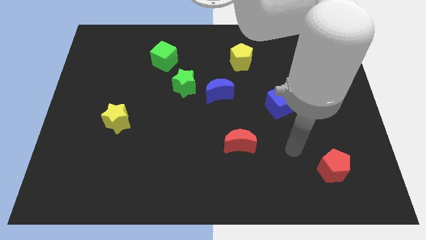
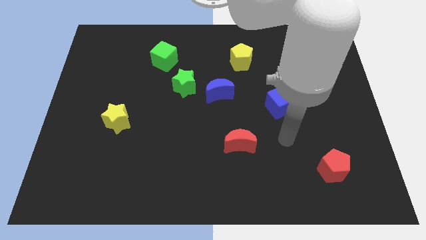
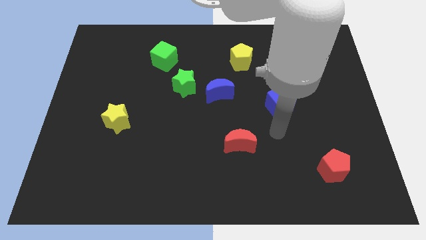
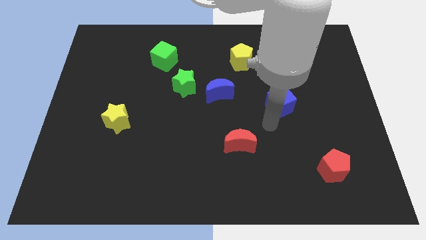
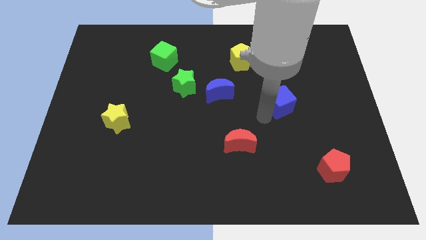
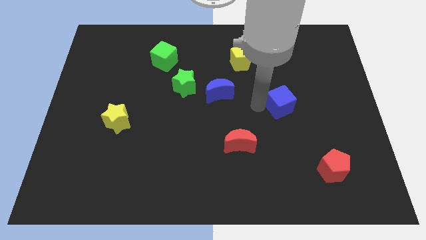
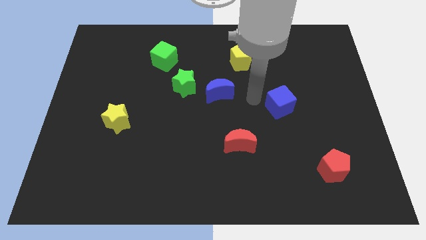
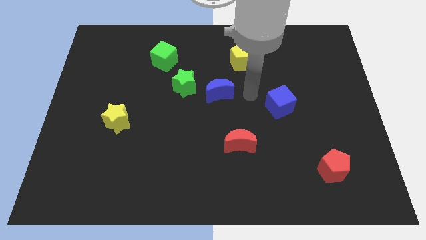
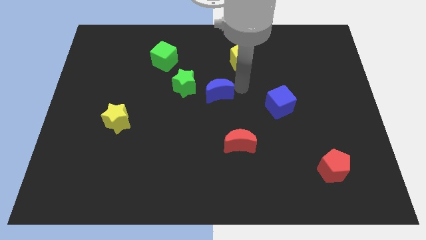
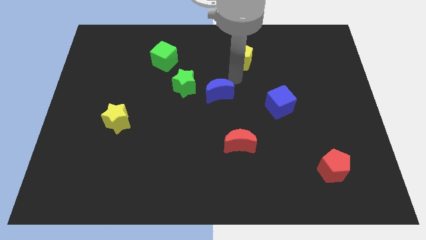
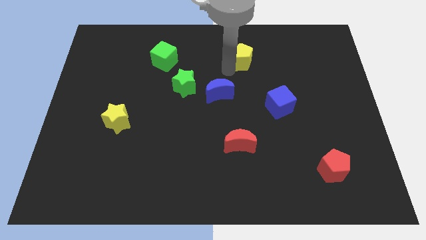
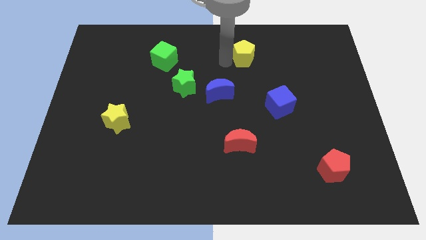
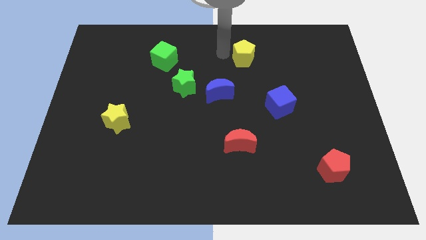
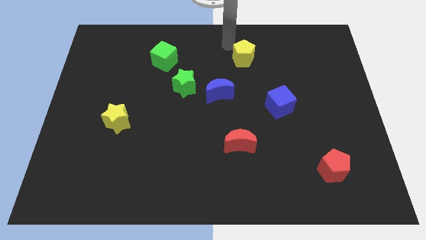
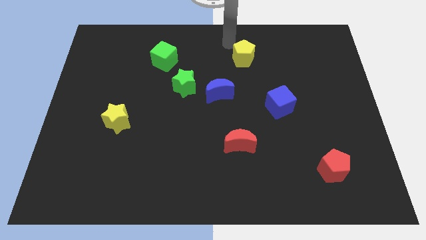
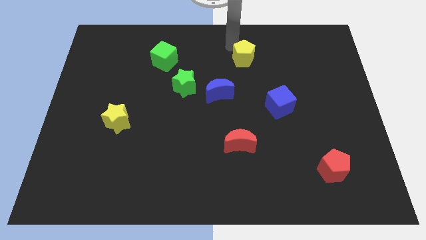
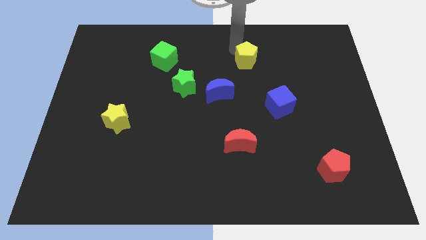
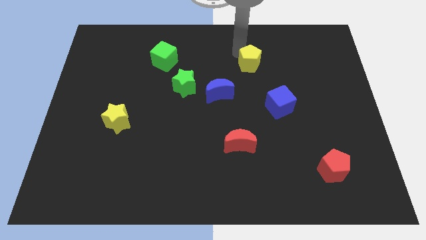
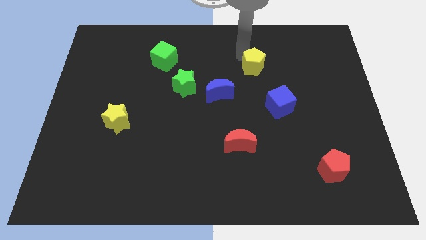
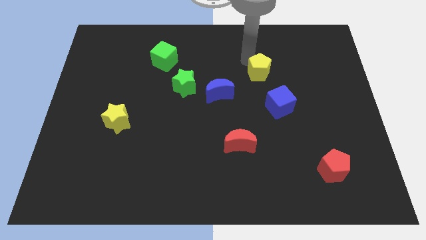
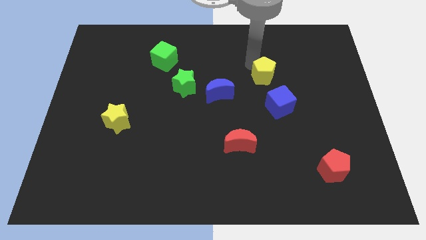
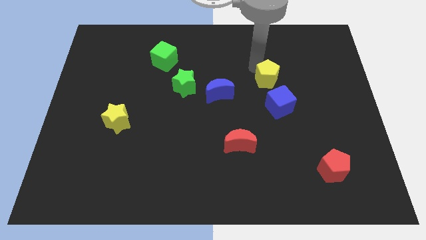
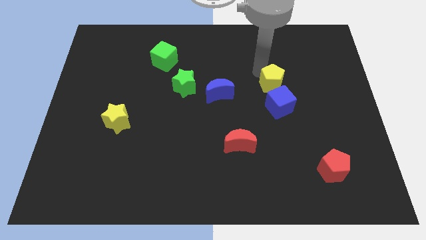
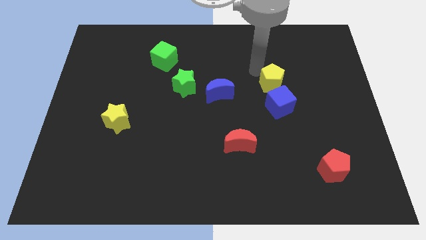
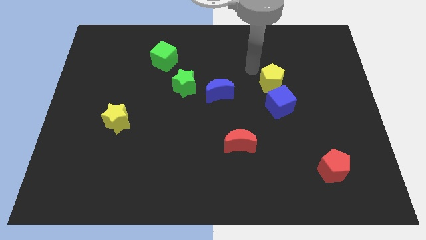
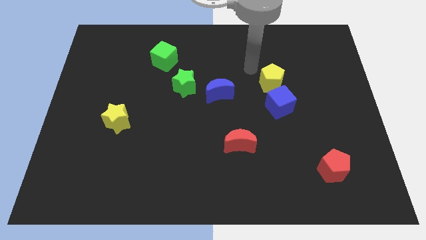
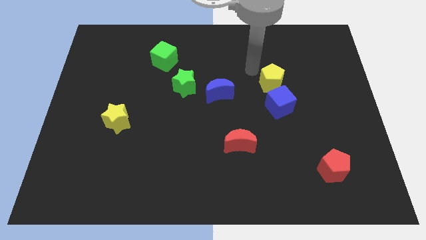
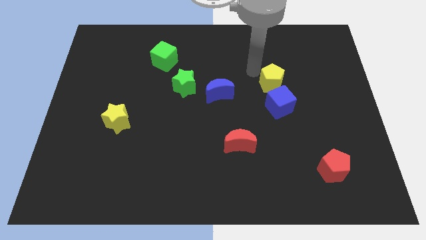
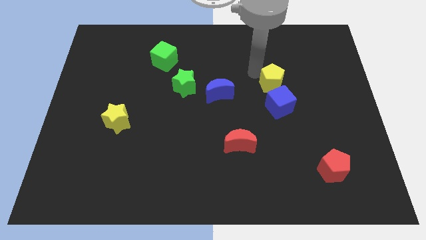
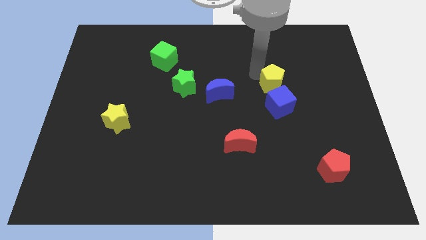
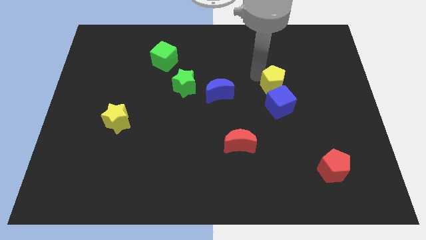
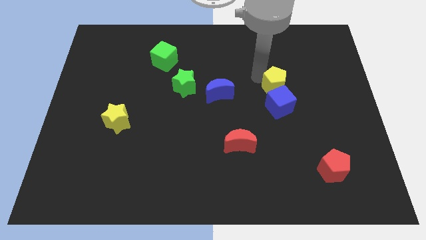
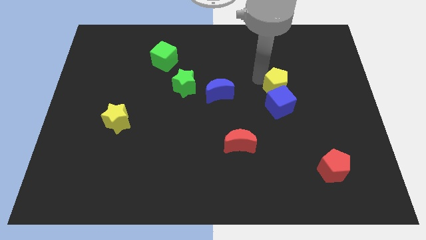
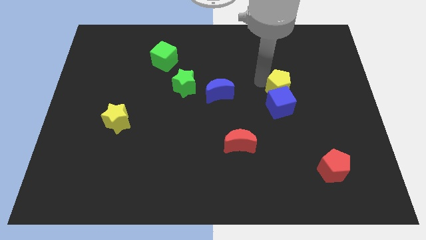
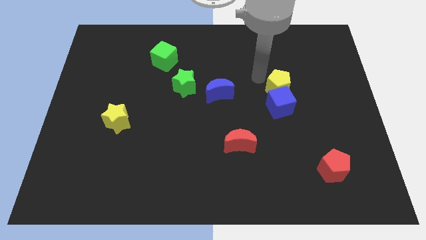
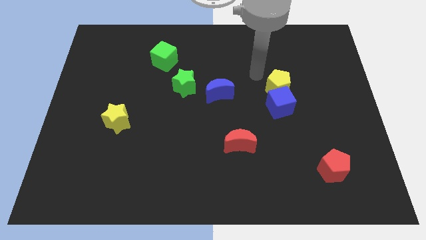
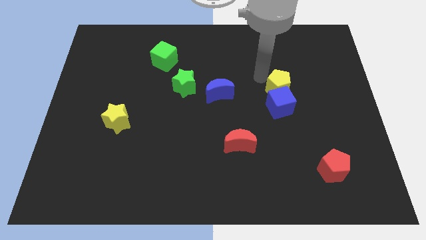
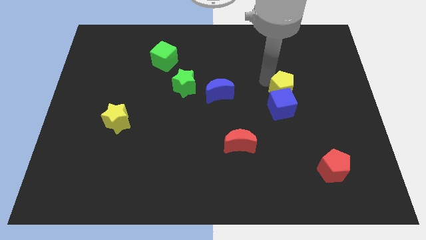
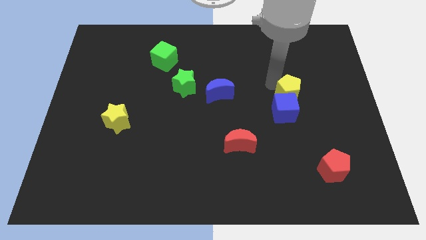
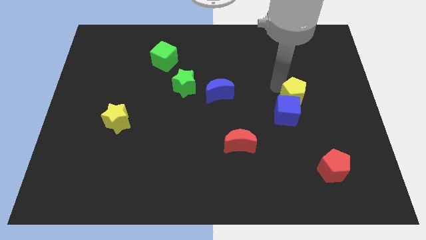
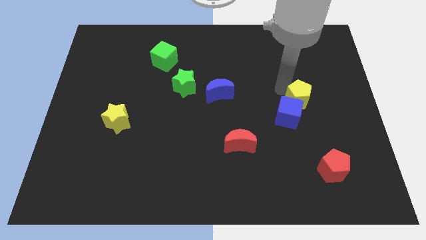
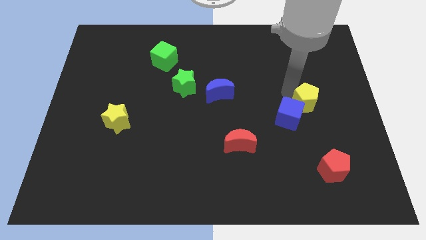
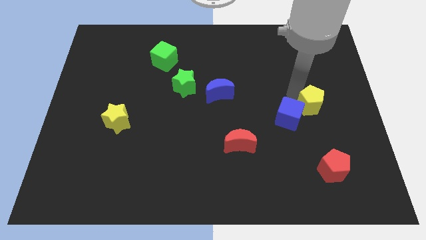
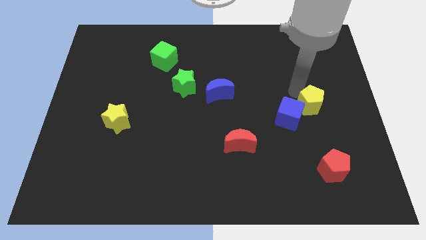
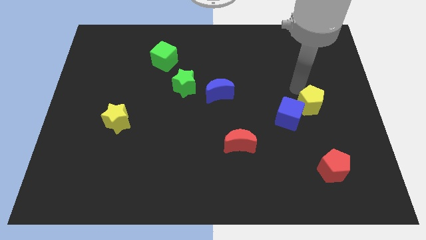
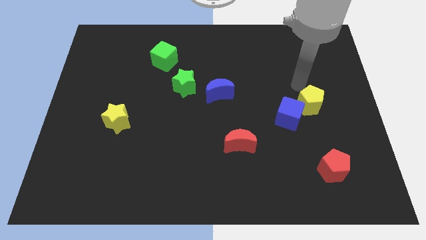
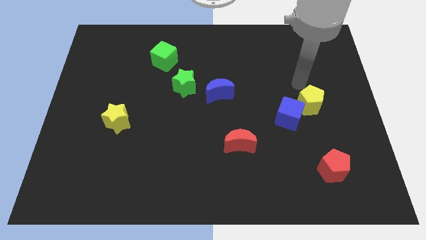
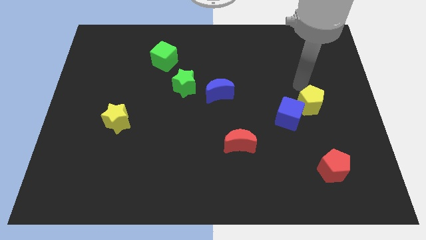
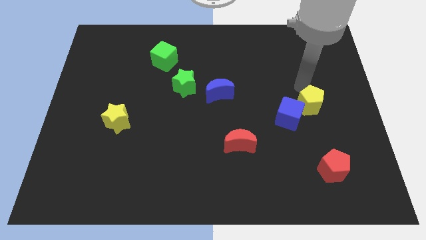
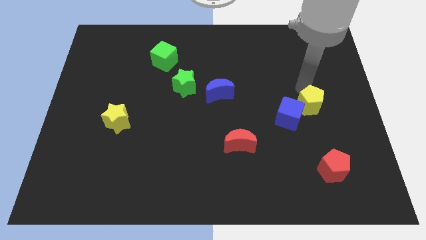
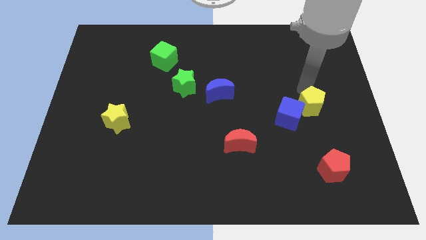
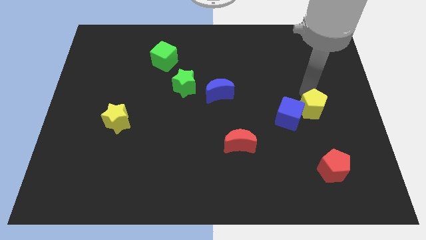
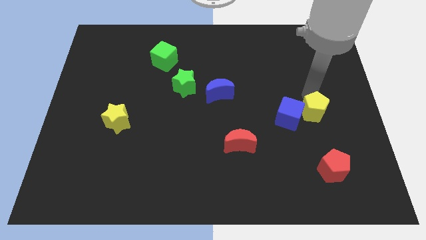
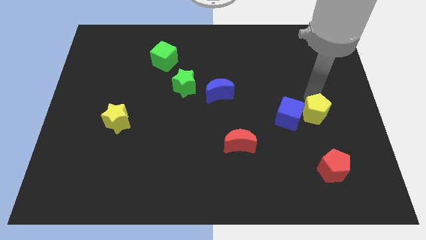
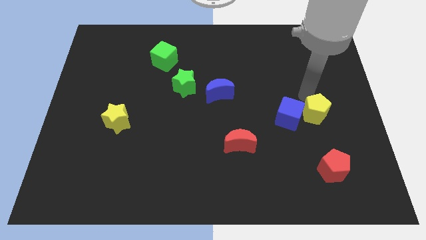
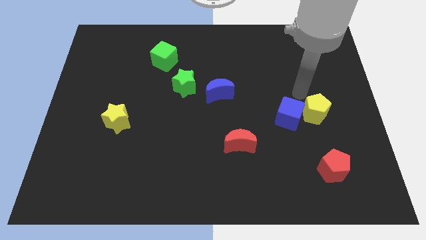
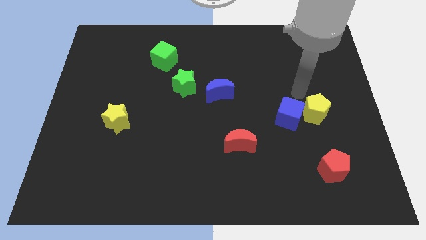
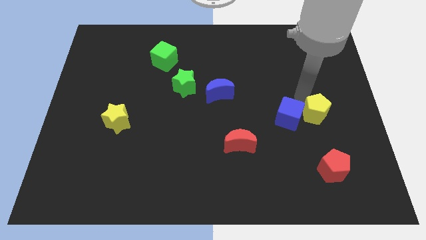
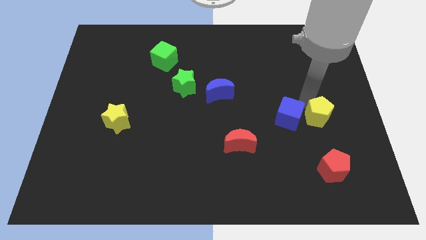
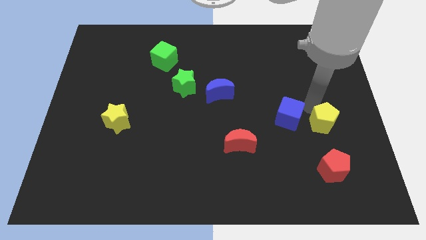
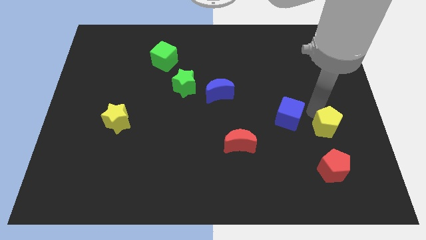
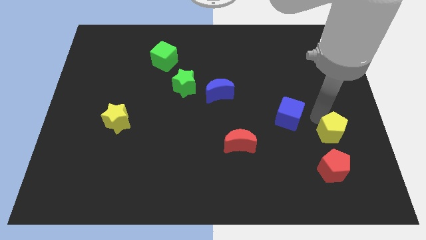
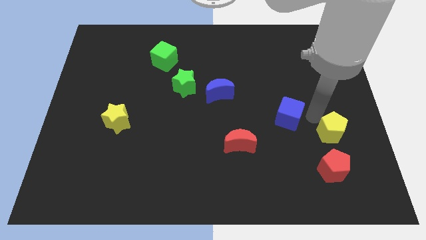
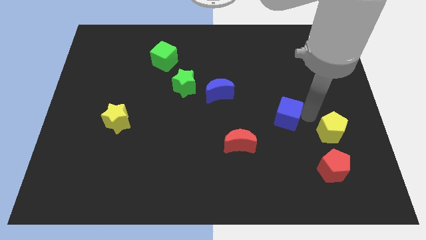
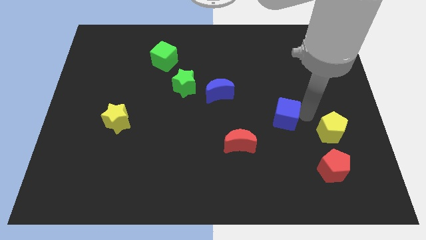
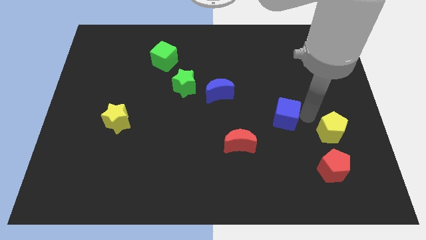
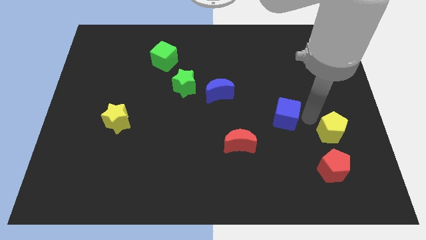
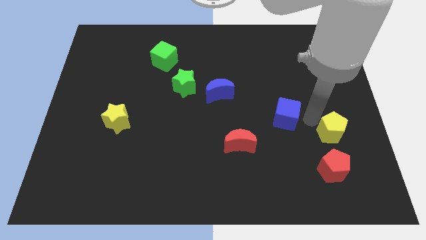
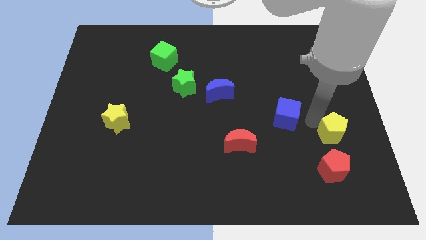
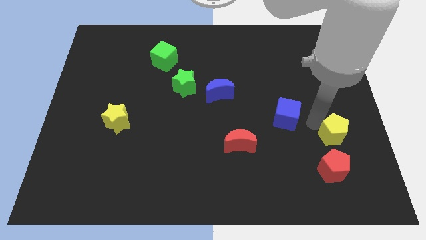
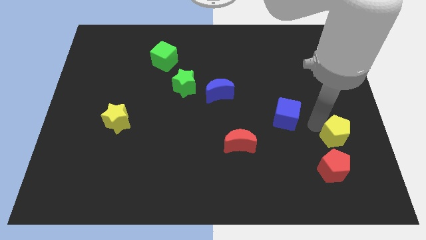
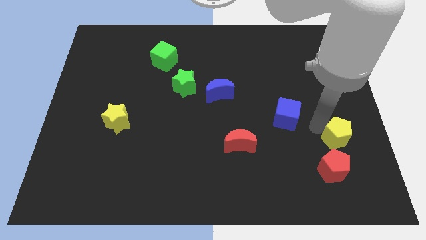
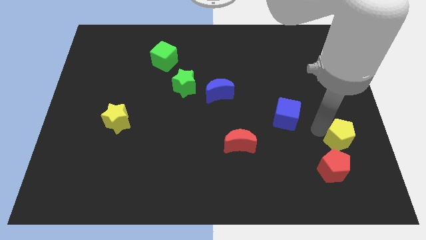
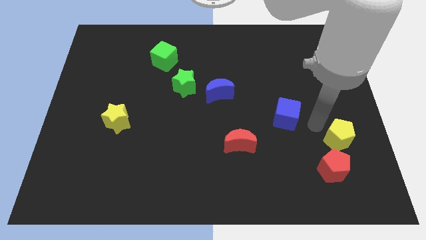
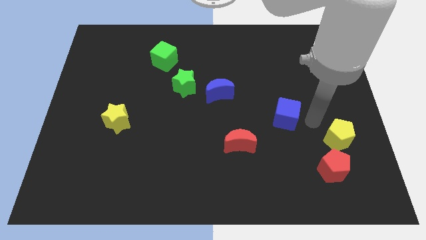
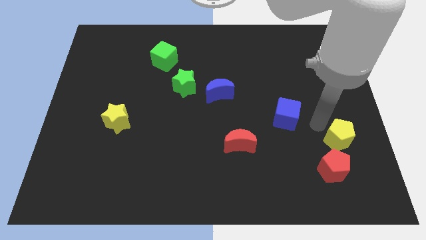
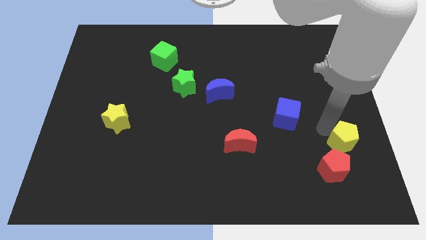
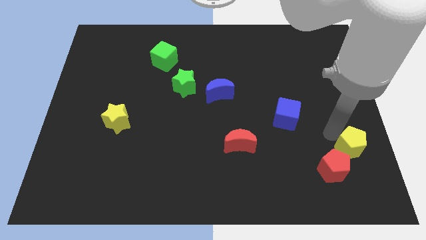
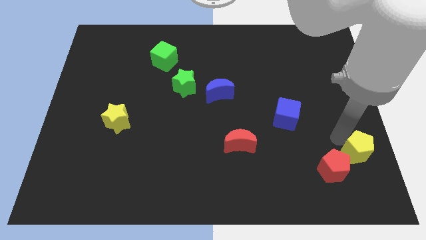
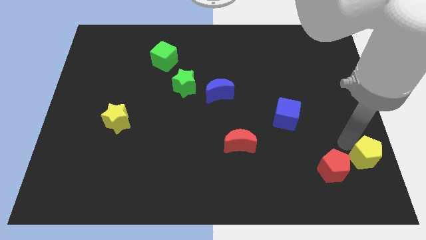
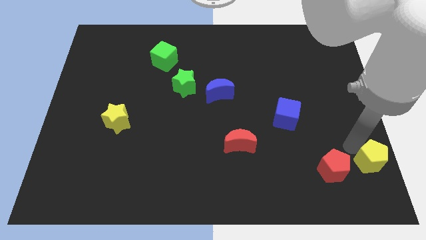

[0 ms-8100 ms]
push the yellow pentagon to the lower right corner
